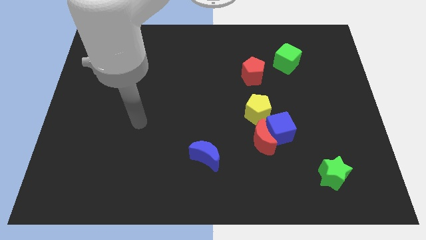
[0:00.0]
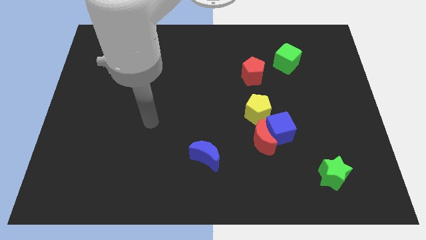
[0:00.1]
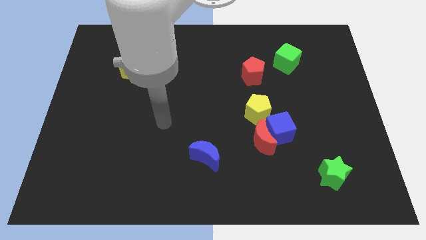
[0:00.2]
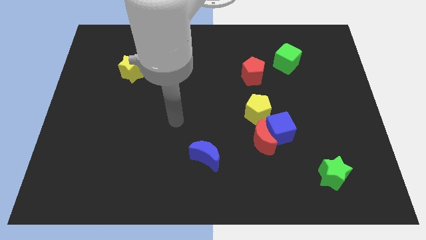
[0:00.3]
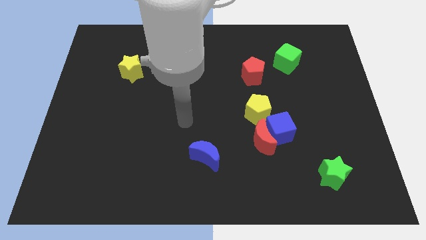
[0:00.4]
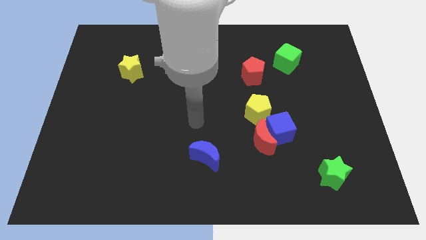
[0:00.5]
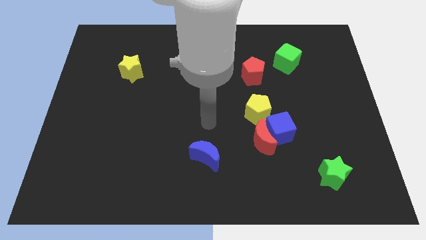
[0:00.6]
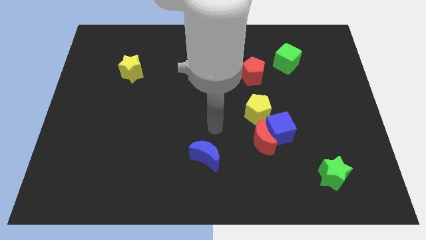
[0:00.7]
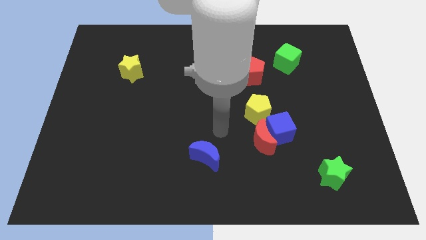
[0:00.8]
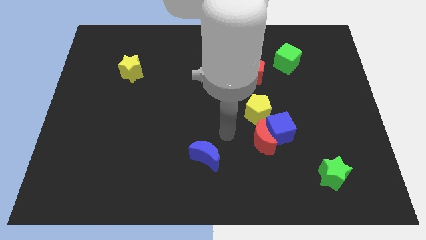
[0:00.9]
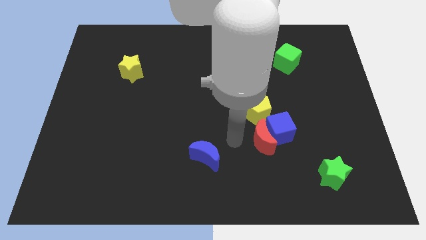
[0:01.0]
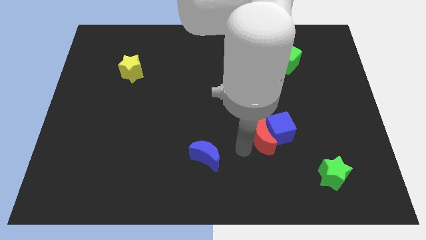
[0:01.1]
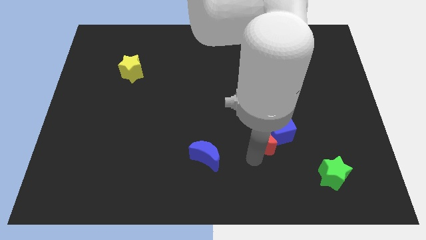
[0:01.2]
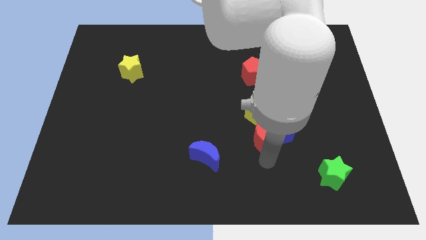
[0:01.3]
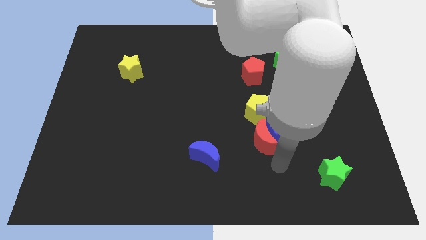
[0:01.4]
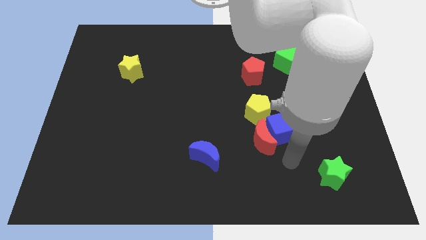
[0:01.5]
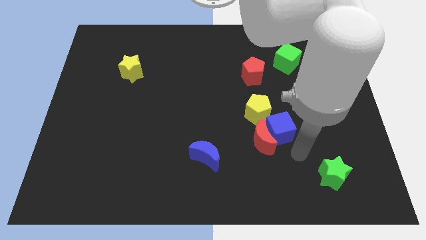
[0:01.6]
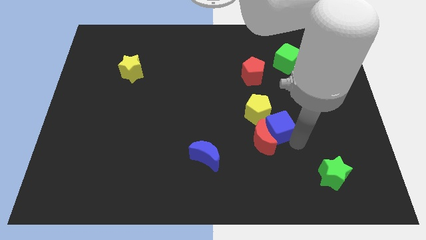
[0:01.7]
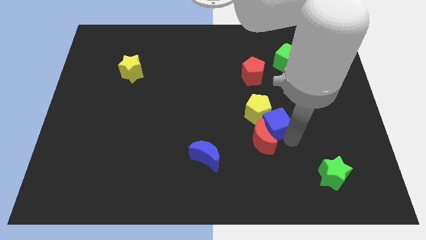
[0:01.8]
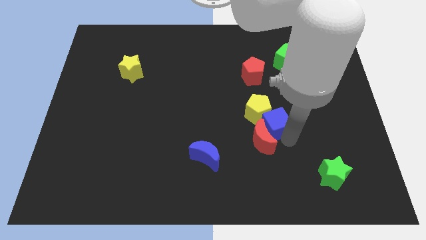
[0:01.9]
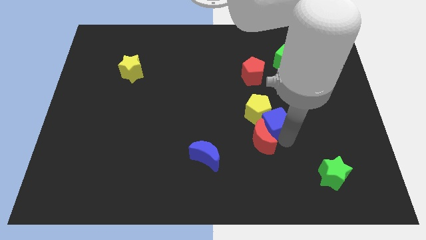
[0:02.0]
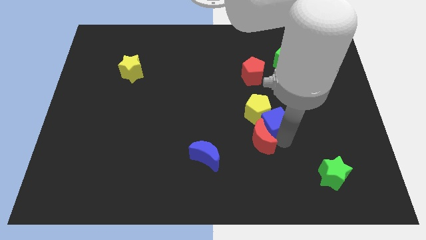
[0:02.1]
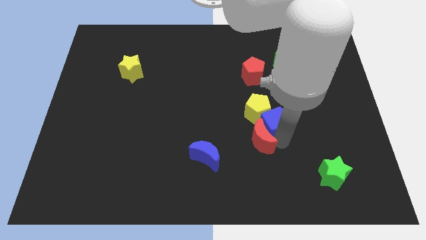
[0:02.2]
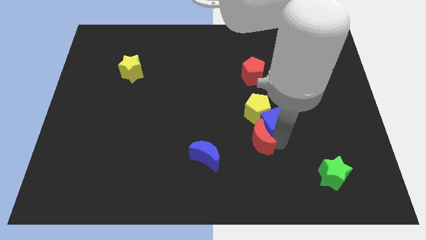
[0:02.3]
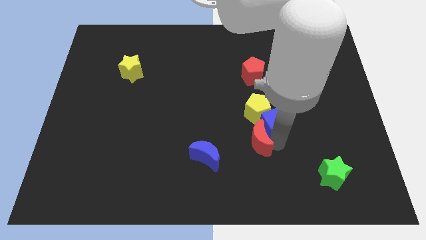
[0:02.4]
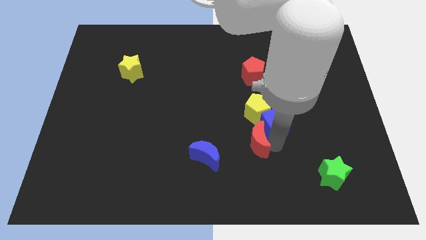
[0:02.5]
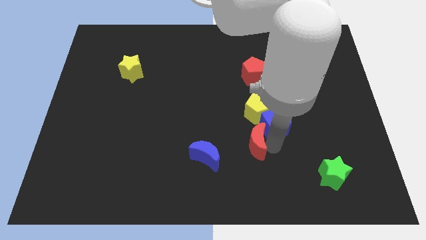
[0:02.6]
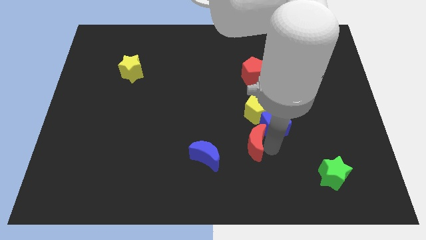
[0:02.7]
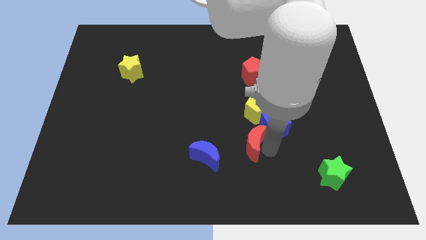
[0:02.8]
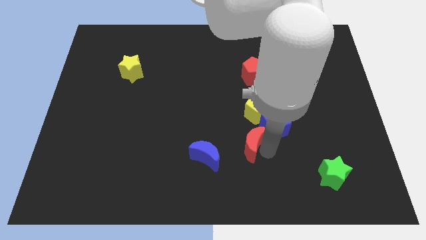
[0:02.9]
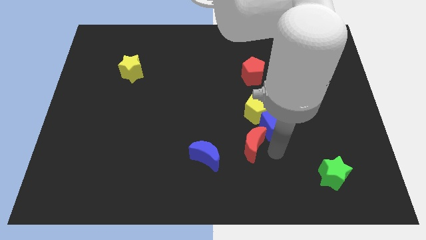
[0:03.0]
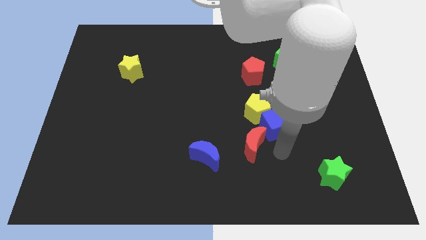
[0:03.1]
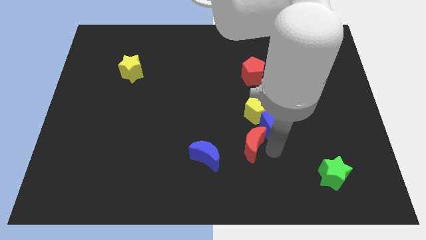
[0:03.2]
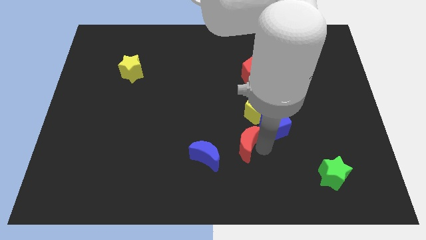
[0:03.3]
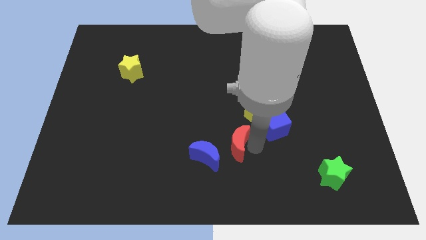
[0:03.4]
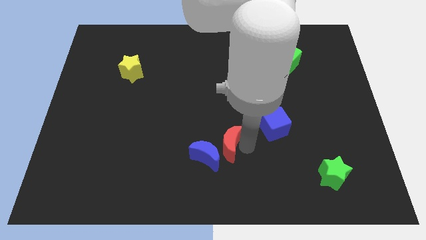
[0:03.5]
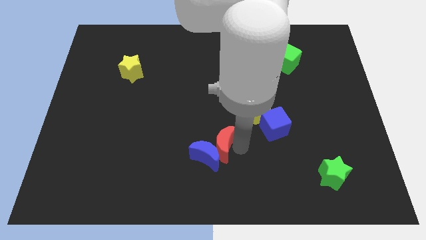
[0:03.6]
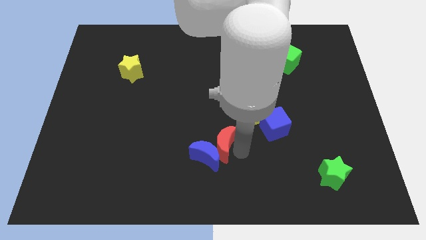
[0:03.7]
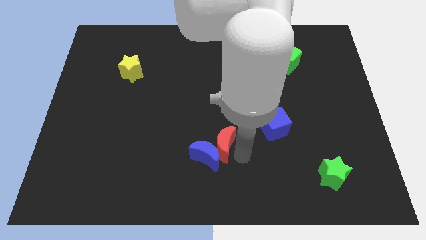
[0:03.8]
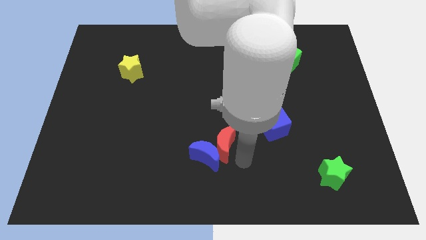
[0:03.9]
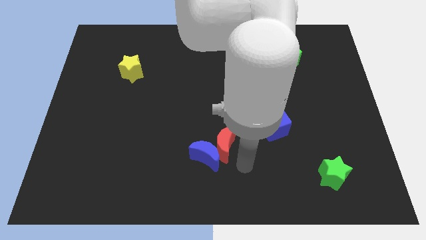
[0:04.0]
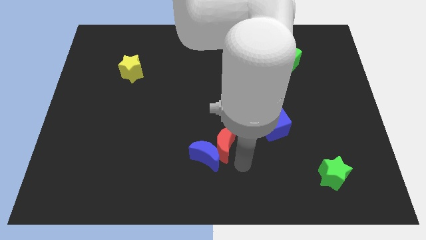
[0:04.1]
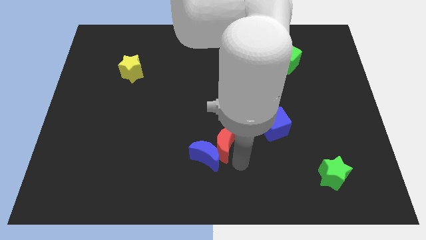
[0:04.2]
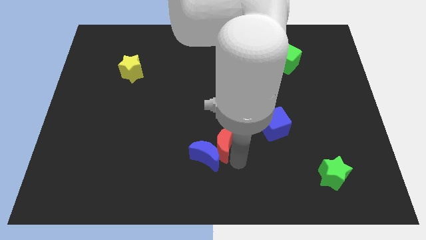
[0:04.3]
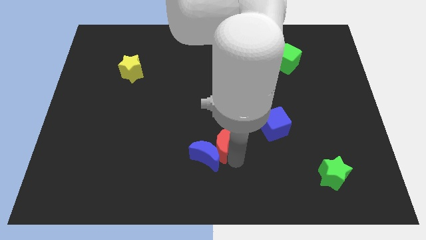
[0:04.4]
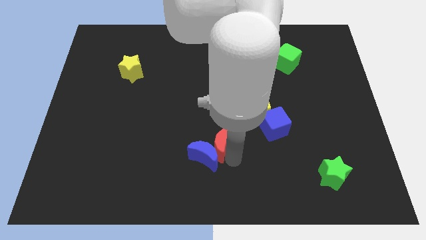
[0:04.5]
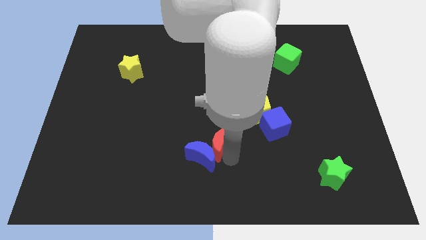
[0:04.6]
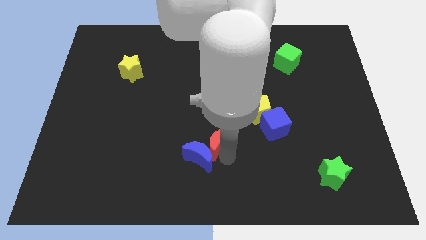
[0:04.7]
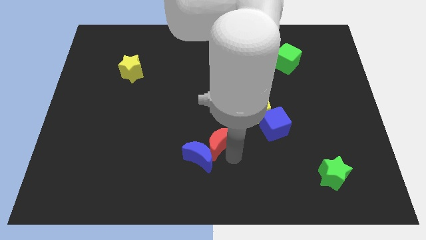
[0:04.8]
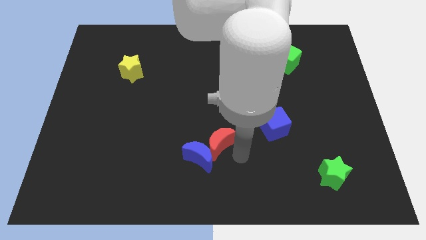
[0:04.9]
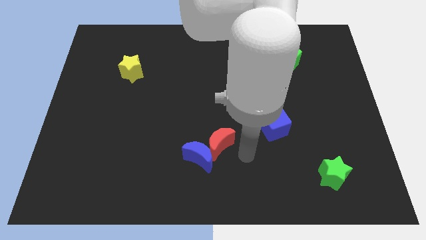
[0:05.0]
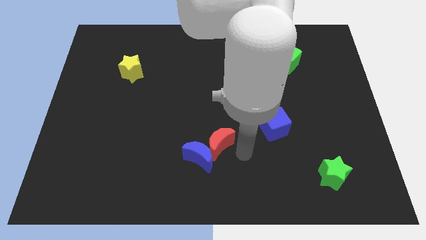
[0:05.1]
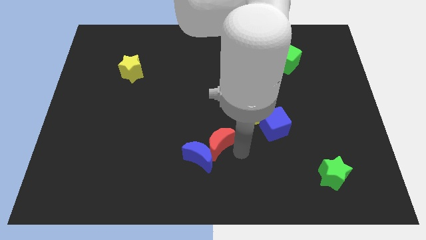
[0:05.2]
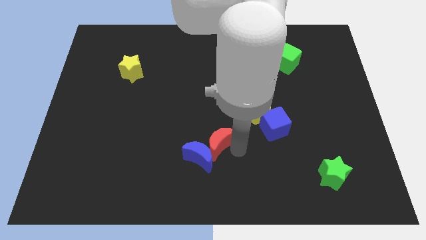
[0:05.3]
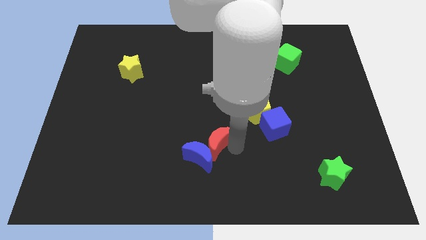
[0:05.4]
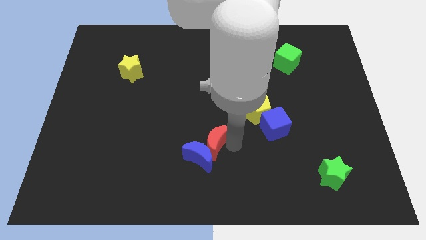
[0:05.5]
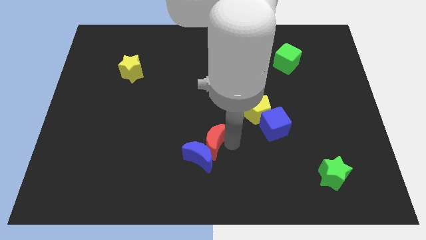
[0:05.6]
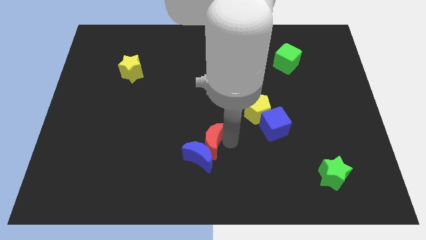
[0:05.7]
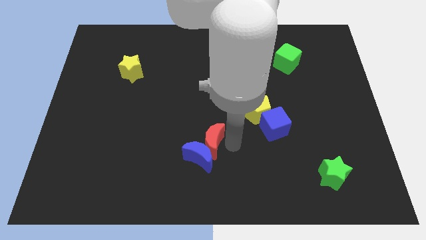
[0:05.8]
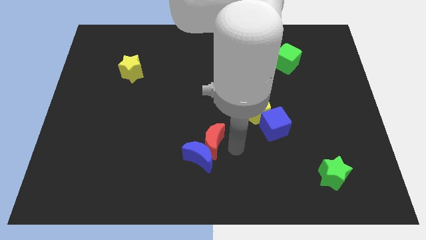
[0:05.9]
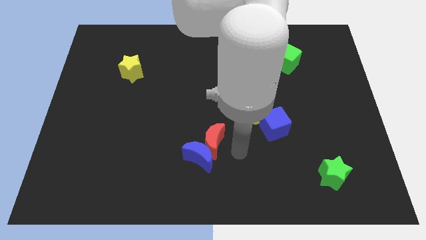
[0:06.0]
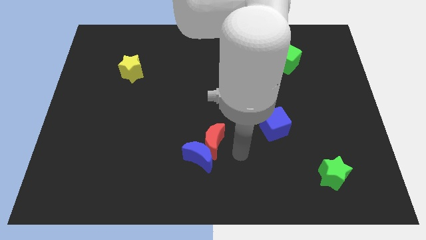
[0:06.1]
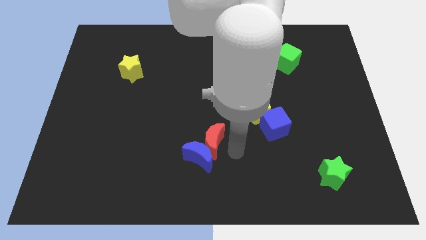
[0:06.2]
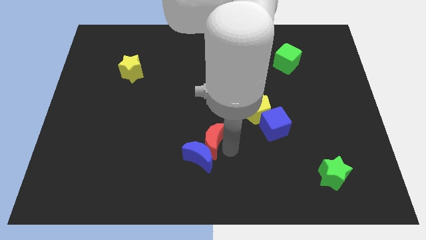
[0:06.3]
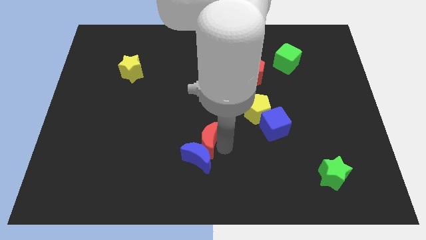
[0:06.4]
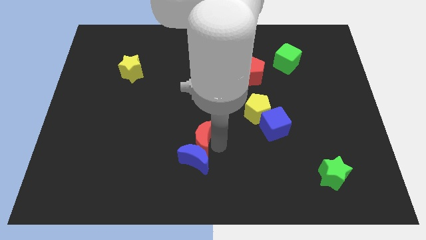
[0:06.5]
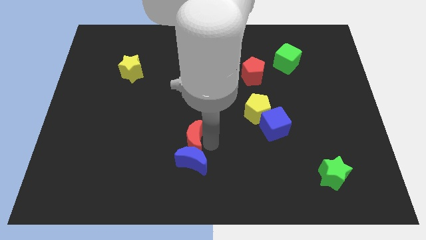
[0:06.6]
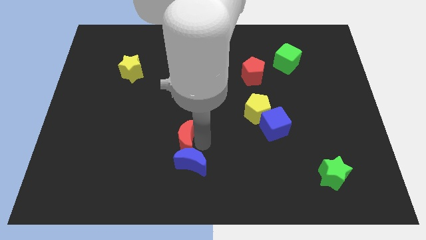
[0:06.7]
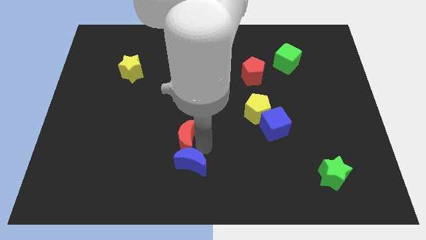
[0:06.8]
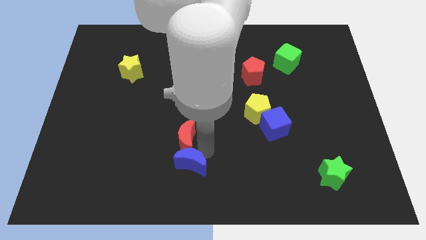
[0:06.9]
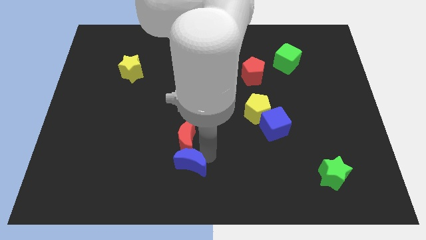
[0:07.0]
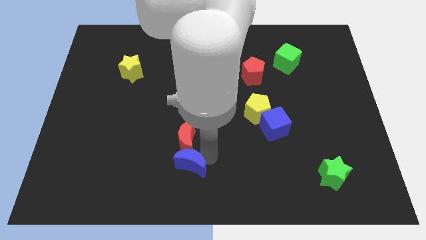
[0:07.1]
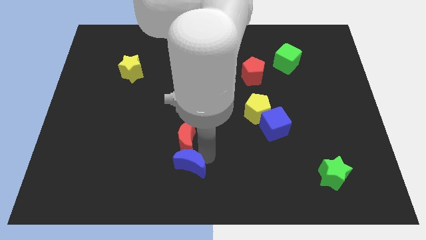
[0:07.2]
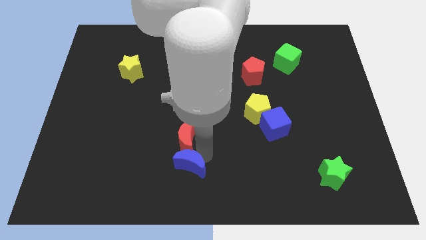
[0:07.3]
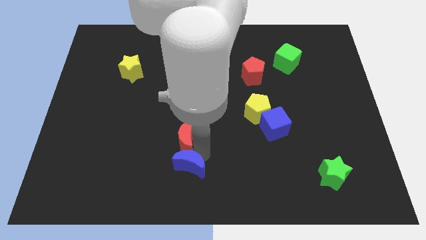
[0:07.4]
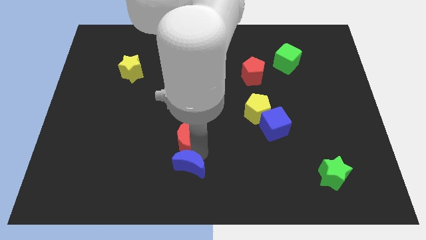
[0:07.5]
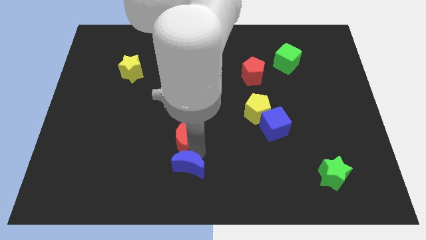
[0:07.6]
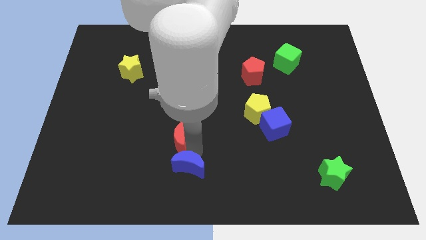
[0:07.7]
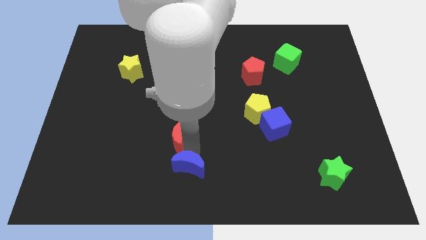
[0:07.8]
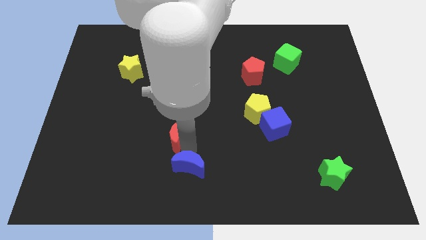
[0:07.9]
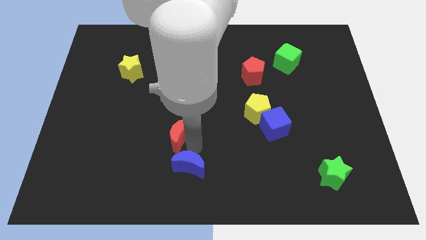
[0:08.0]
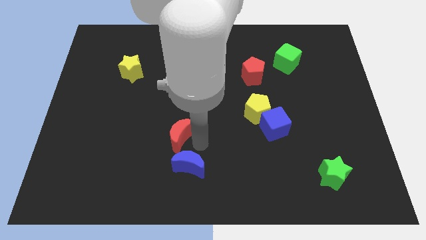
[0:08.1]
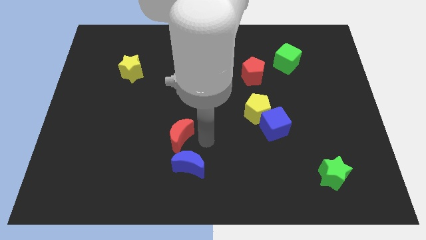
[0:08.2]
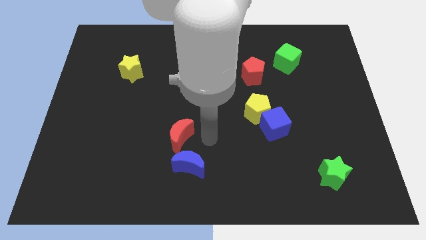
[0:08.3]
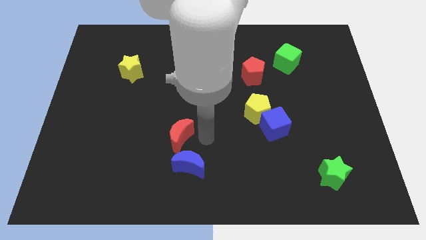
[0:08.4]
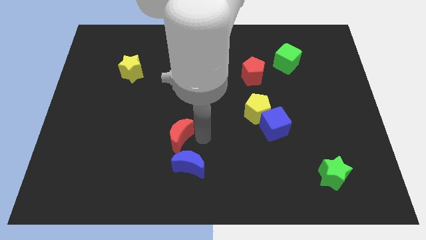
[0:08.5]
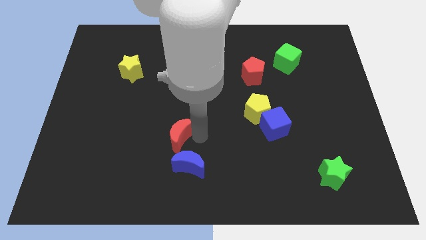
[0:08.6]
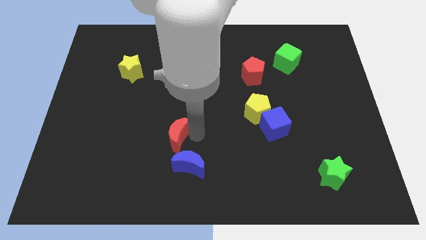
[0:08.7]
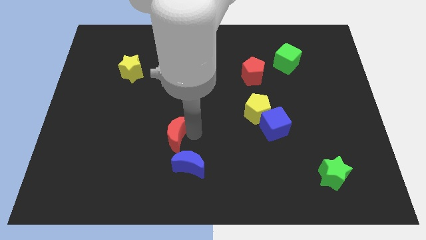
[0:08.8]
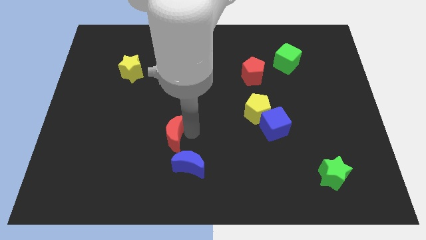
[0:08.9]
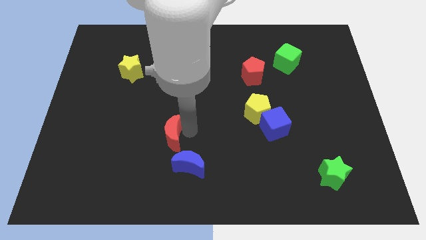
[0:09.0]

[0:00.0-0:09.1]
push the red moon to the left
